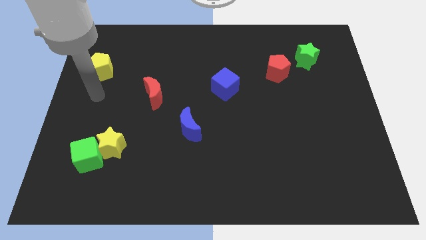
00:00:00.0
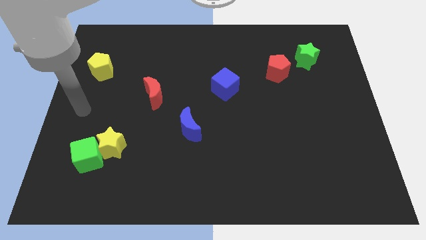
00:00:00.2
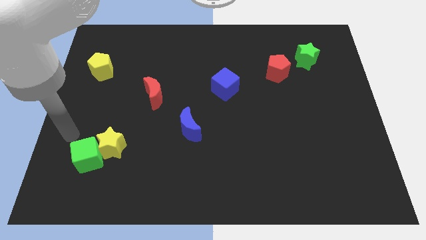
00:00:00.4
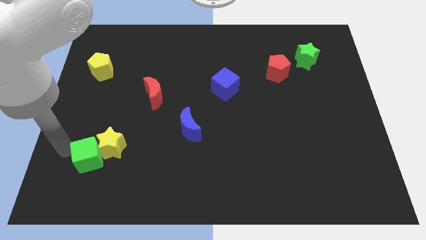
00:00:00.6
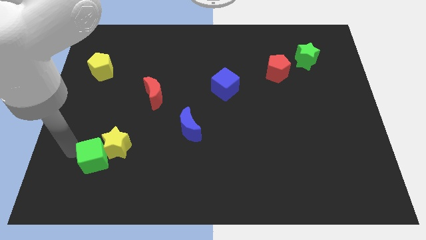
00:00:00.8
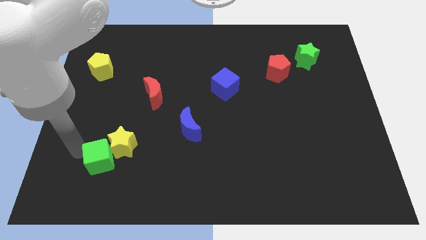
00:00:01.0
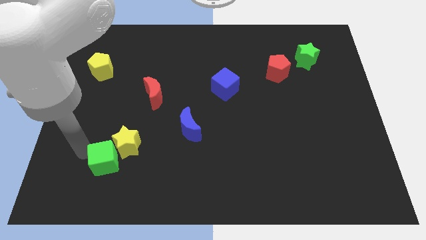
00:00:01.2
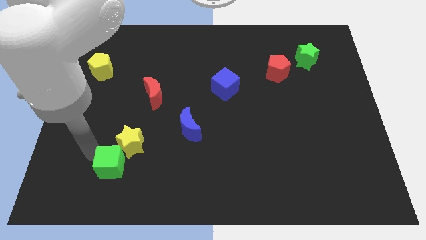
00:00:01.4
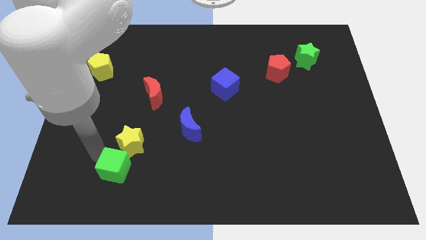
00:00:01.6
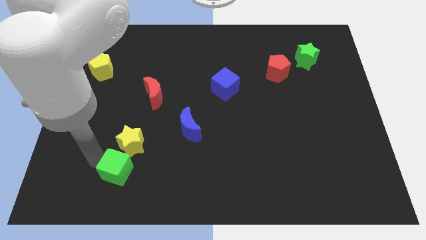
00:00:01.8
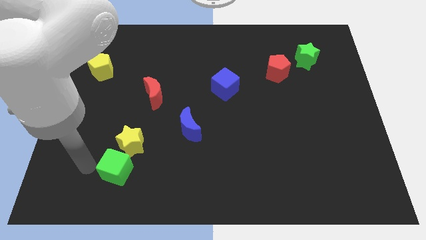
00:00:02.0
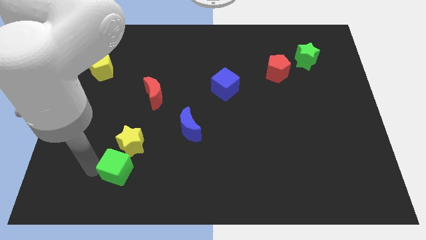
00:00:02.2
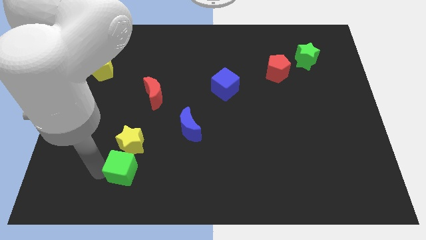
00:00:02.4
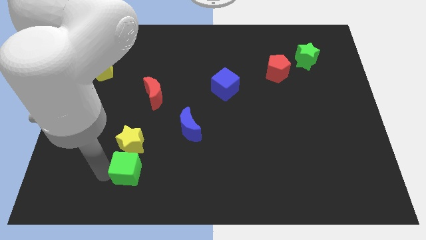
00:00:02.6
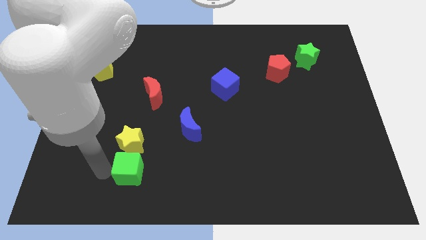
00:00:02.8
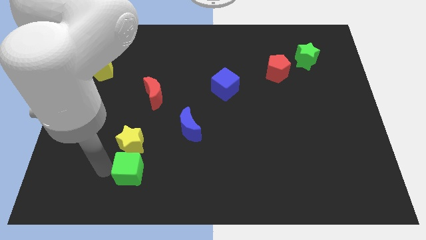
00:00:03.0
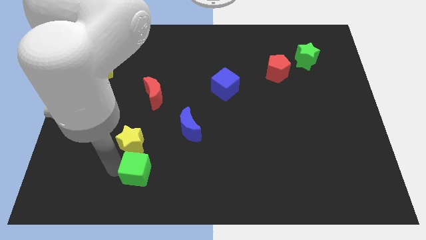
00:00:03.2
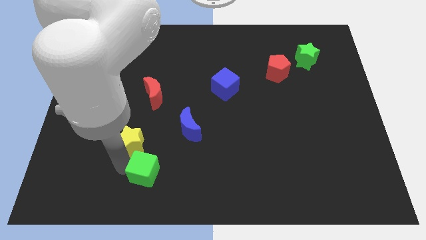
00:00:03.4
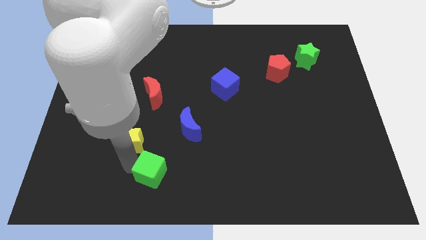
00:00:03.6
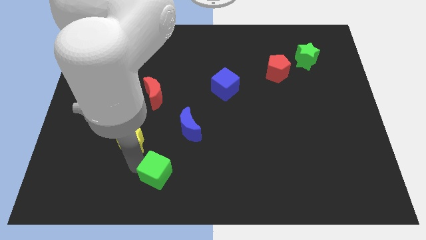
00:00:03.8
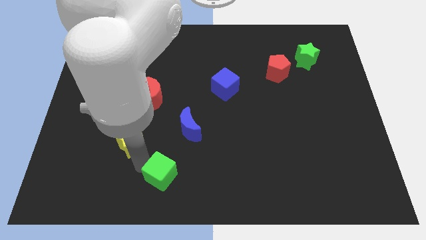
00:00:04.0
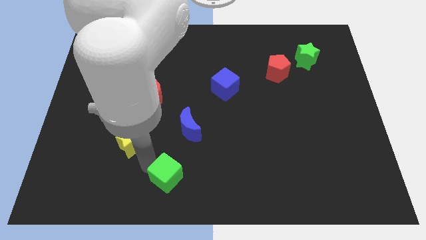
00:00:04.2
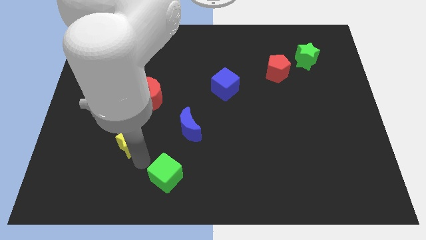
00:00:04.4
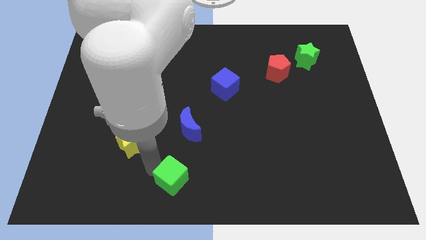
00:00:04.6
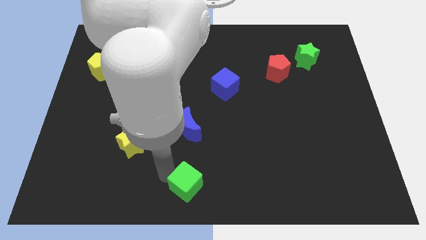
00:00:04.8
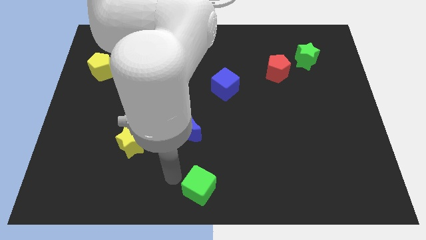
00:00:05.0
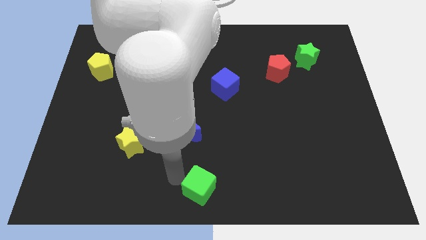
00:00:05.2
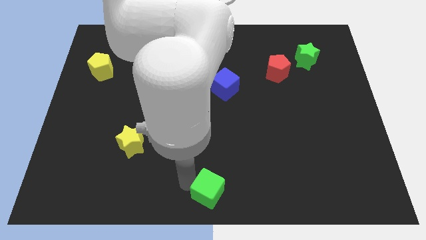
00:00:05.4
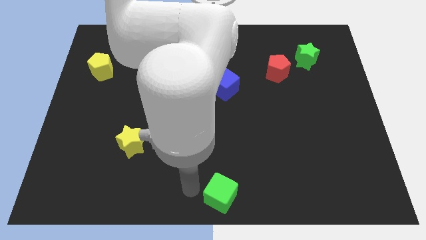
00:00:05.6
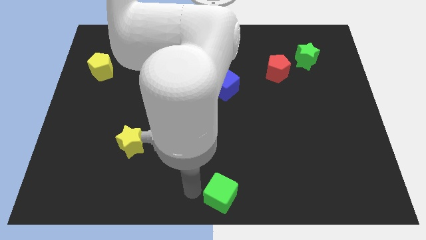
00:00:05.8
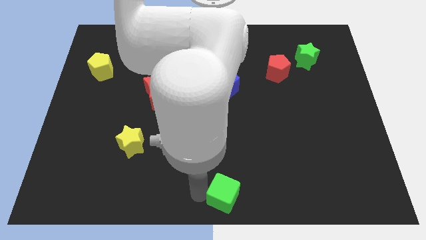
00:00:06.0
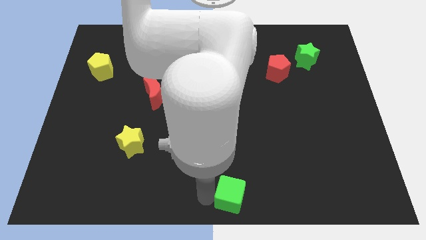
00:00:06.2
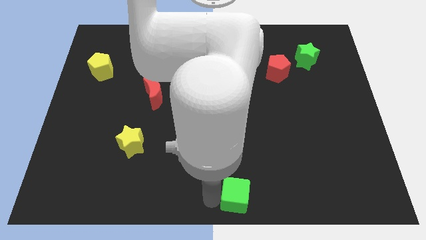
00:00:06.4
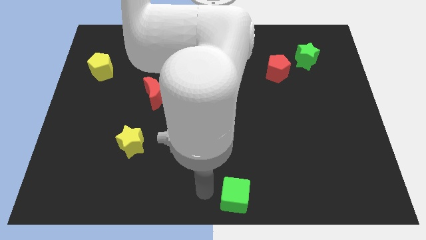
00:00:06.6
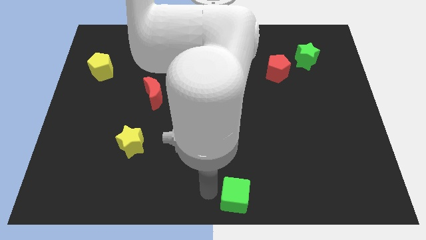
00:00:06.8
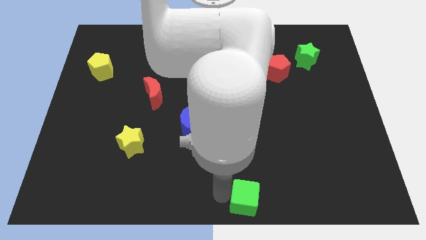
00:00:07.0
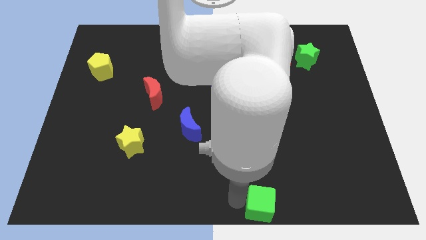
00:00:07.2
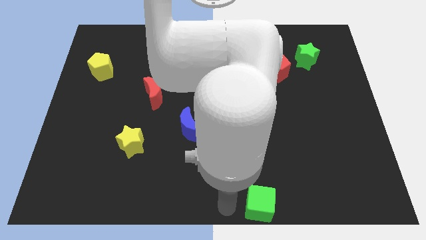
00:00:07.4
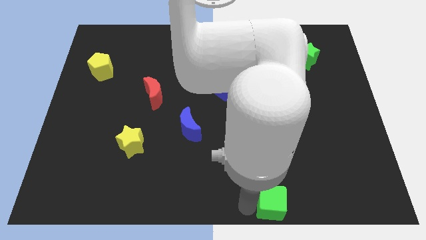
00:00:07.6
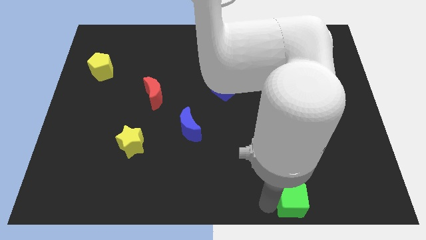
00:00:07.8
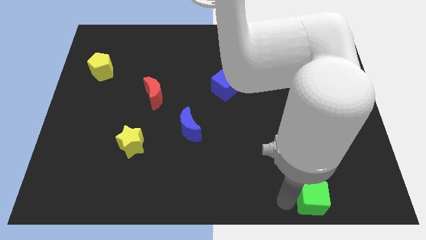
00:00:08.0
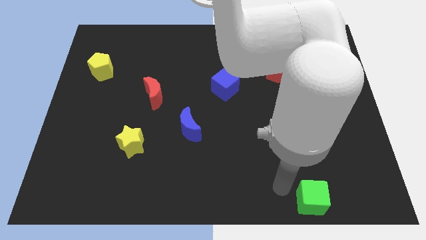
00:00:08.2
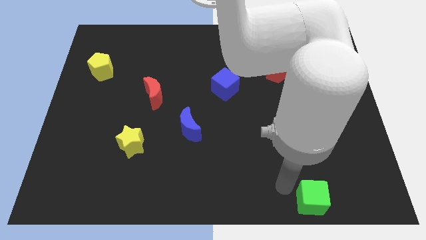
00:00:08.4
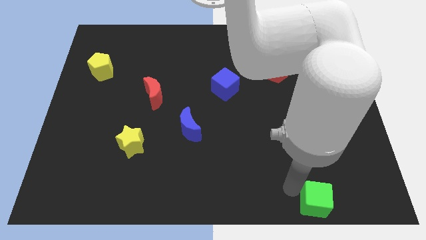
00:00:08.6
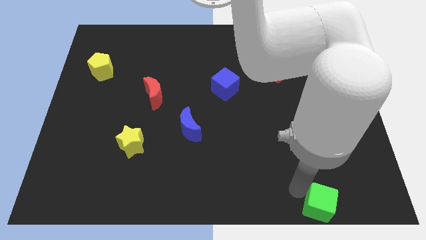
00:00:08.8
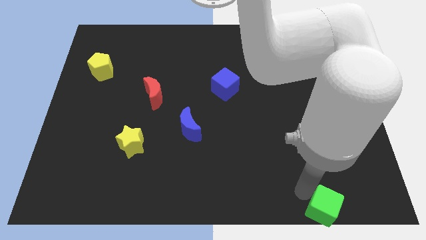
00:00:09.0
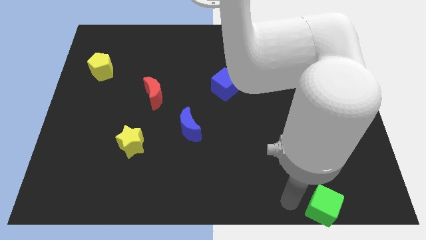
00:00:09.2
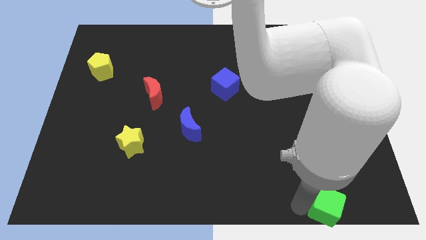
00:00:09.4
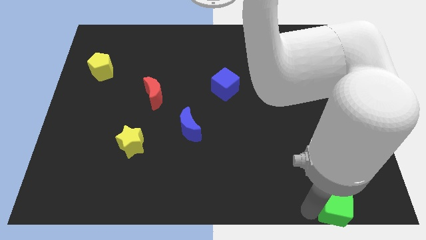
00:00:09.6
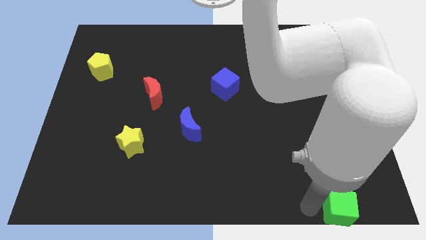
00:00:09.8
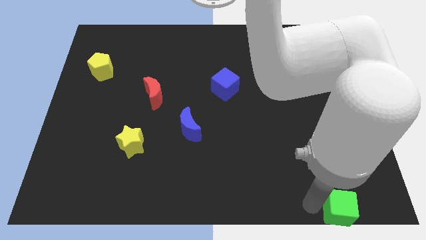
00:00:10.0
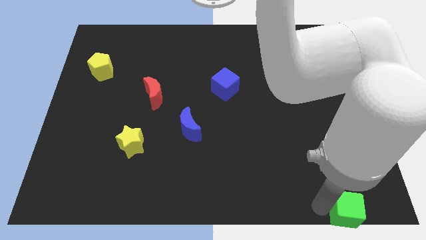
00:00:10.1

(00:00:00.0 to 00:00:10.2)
move the green cube to the bottom right corner

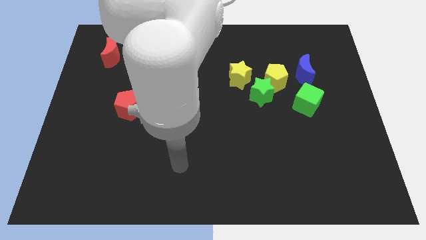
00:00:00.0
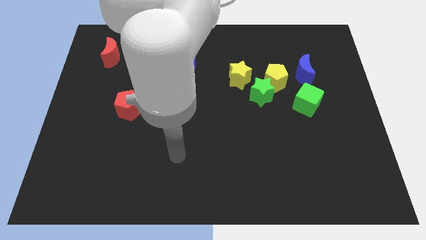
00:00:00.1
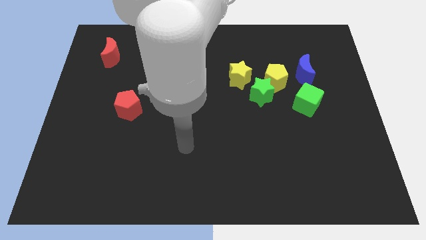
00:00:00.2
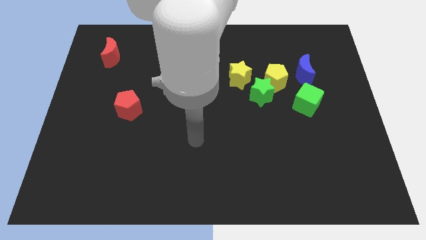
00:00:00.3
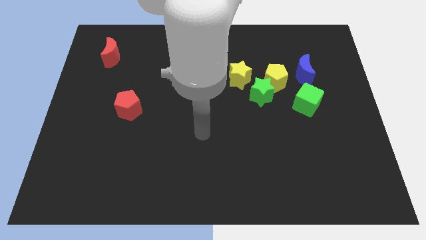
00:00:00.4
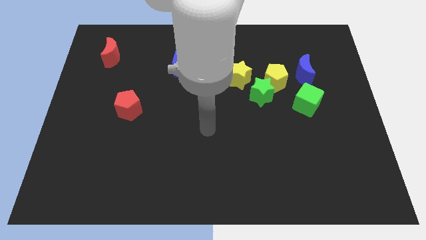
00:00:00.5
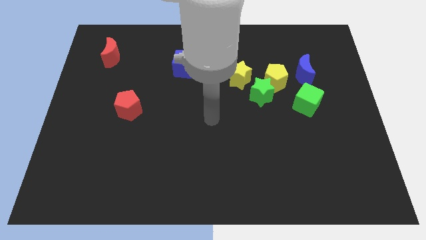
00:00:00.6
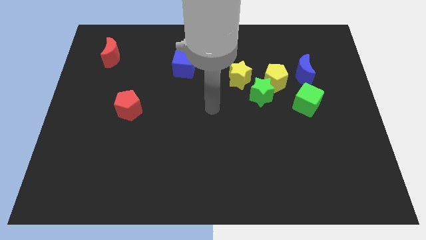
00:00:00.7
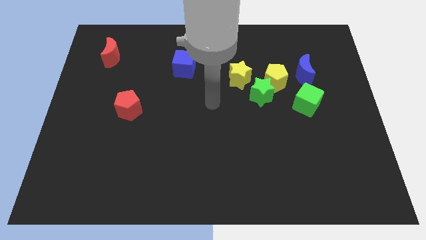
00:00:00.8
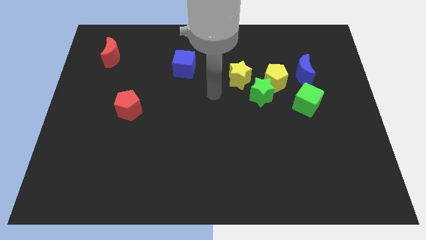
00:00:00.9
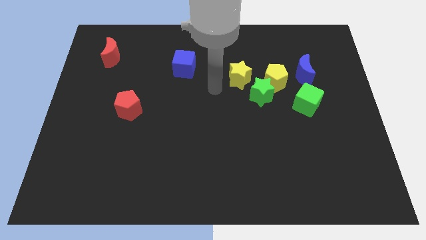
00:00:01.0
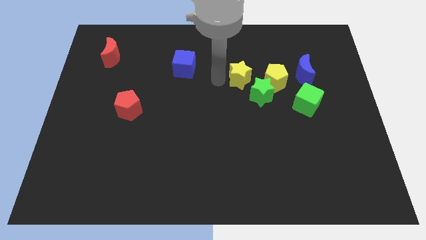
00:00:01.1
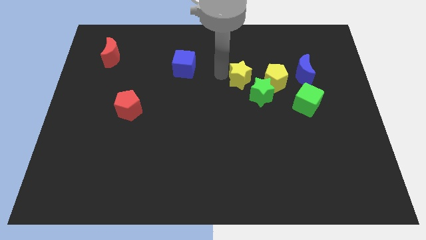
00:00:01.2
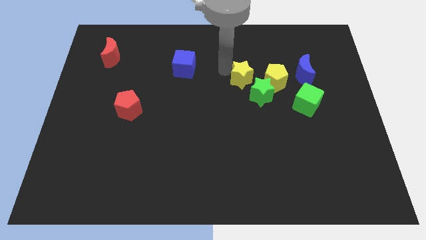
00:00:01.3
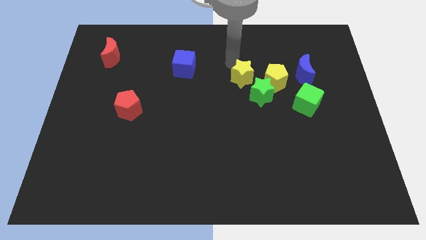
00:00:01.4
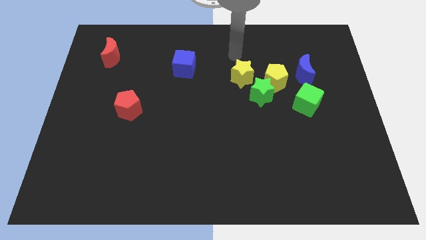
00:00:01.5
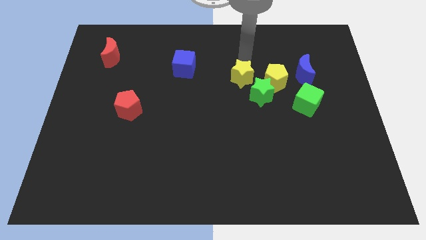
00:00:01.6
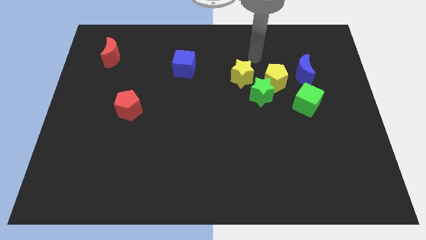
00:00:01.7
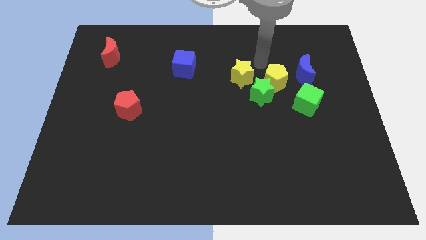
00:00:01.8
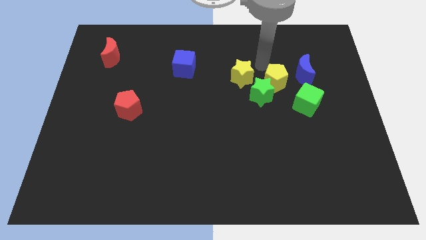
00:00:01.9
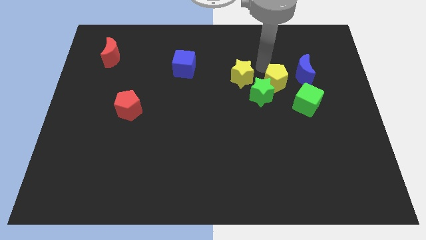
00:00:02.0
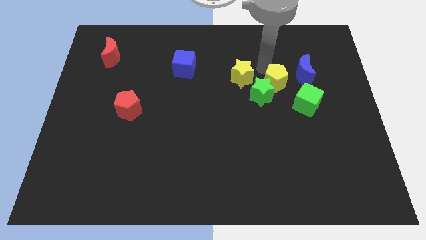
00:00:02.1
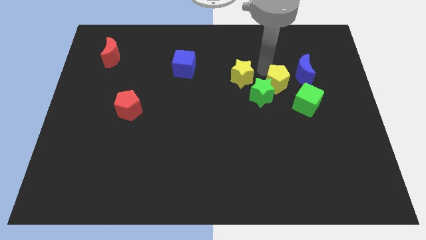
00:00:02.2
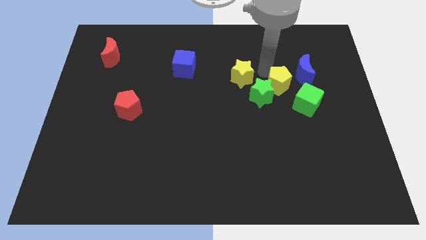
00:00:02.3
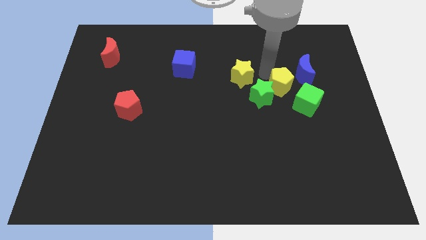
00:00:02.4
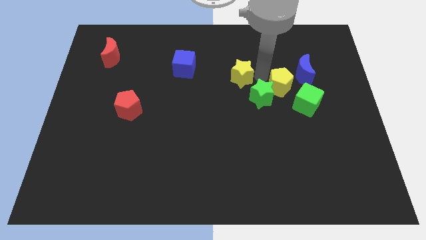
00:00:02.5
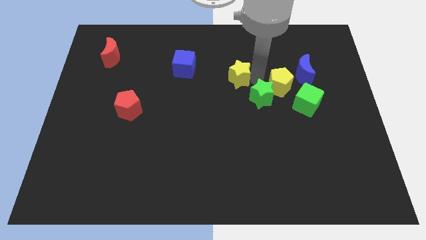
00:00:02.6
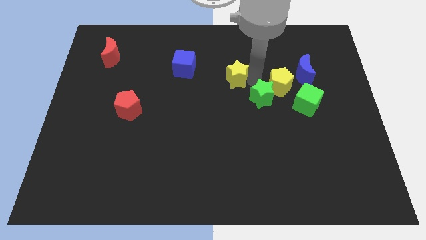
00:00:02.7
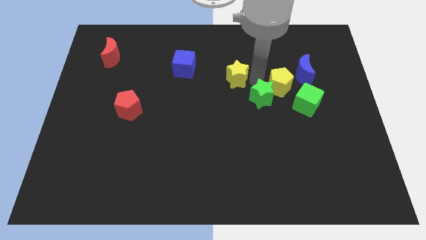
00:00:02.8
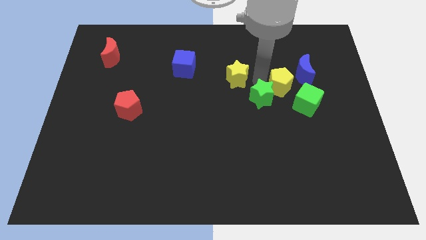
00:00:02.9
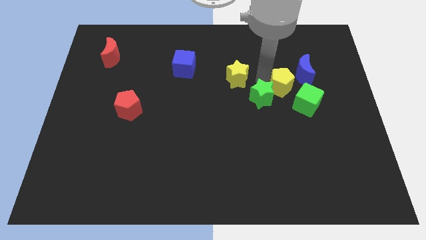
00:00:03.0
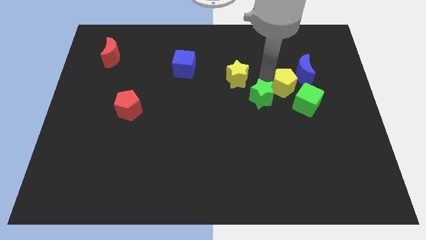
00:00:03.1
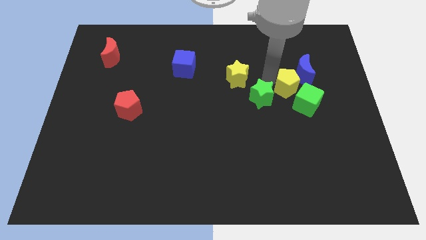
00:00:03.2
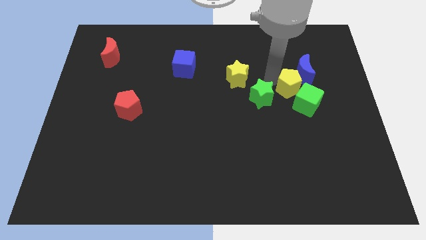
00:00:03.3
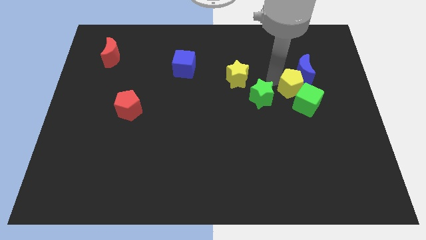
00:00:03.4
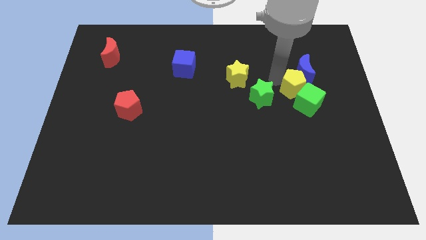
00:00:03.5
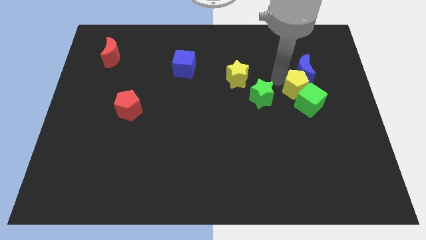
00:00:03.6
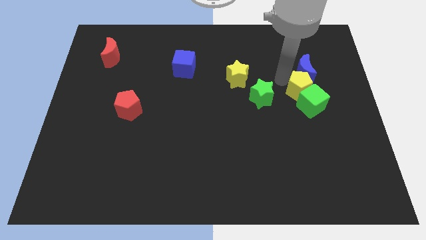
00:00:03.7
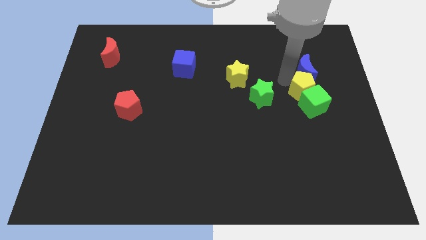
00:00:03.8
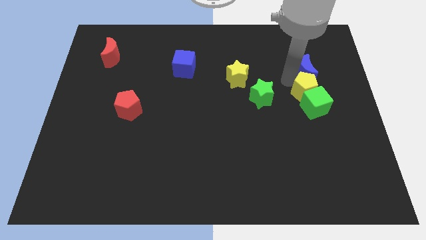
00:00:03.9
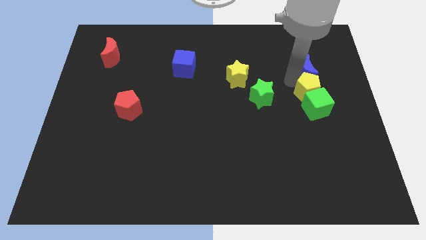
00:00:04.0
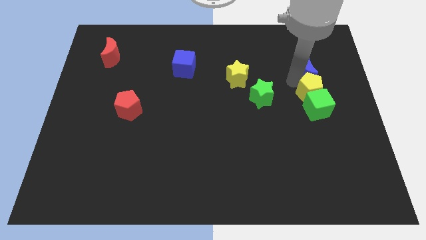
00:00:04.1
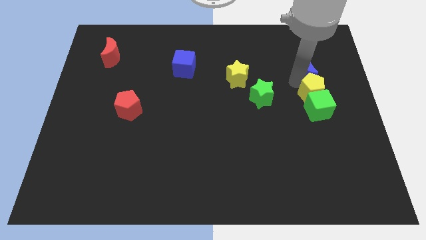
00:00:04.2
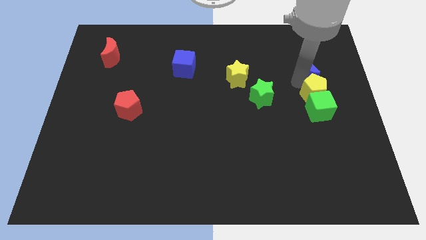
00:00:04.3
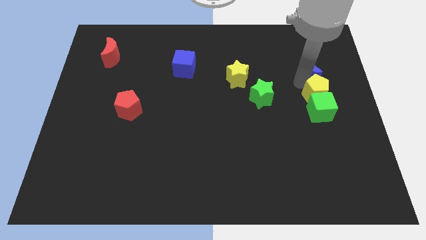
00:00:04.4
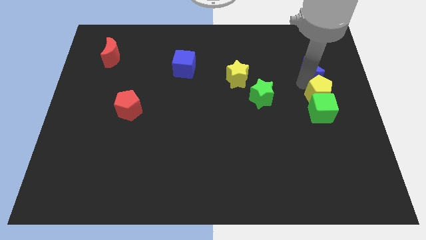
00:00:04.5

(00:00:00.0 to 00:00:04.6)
move the yellow pentagon to the right side
